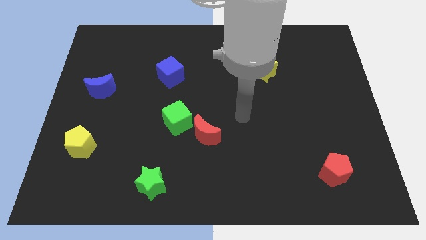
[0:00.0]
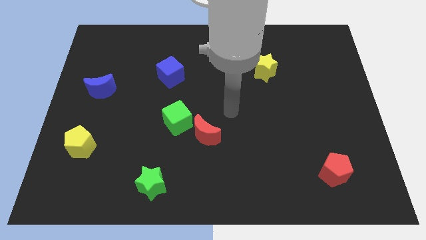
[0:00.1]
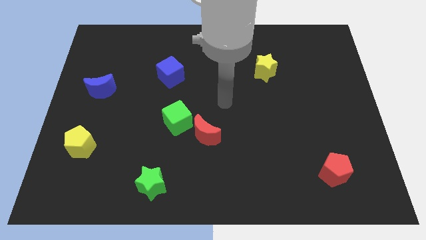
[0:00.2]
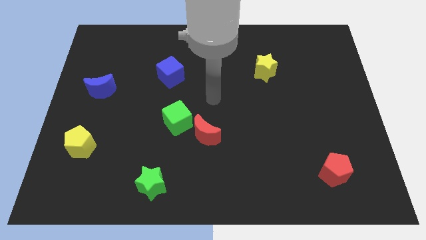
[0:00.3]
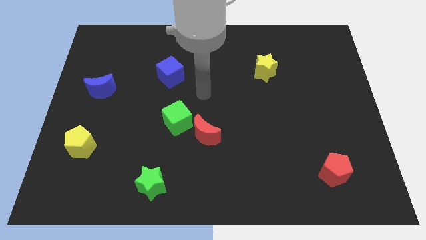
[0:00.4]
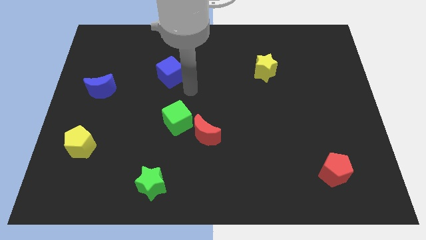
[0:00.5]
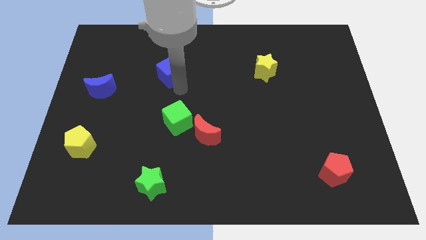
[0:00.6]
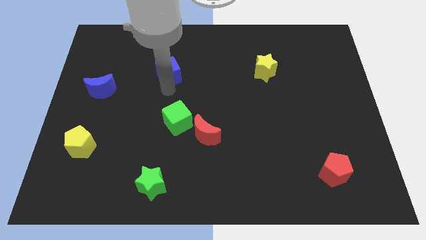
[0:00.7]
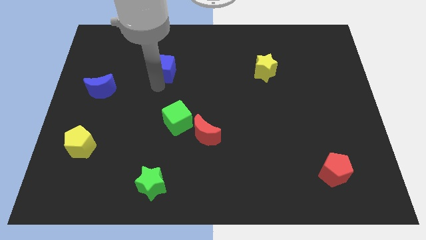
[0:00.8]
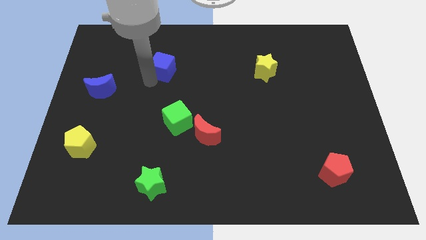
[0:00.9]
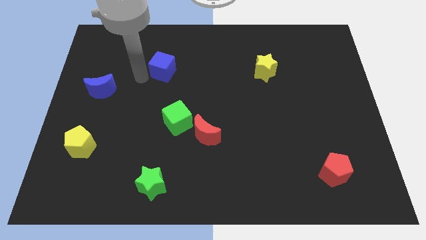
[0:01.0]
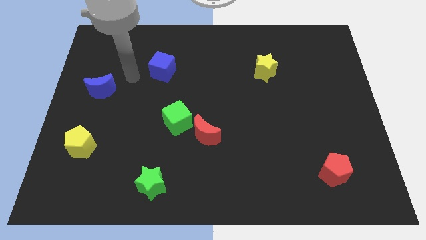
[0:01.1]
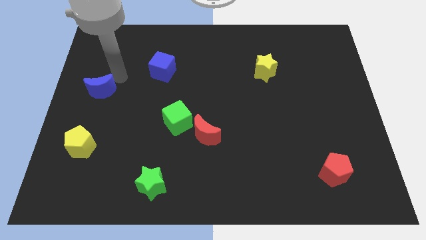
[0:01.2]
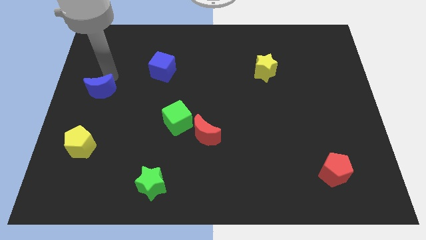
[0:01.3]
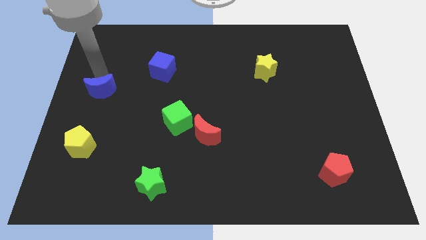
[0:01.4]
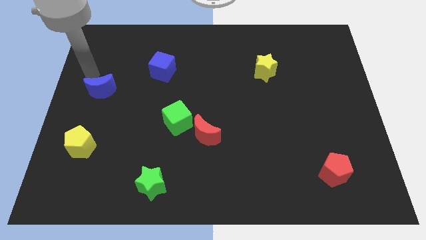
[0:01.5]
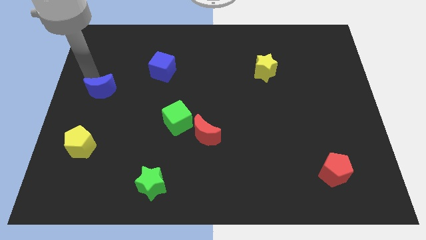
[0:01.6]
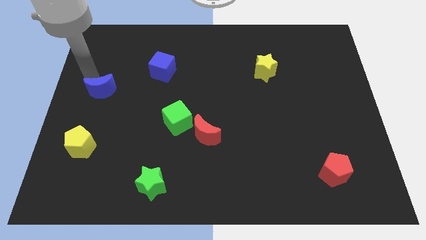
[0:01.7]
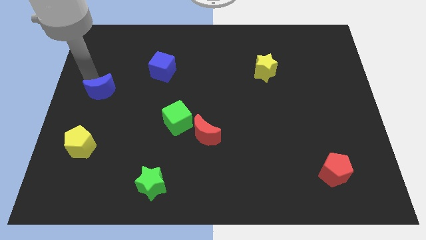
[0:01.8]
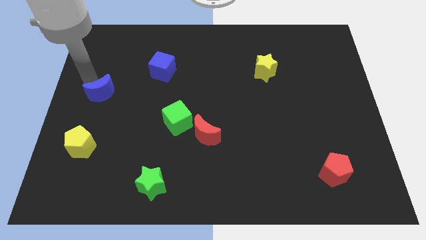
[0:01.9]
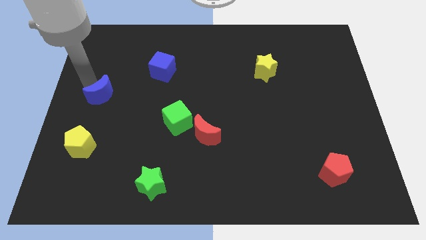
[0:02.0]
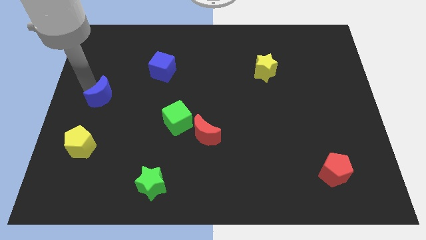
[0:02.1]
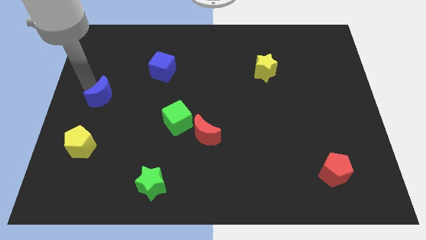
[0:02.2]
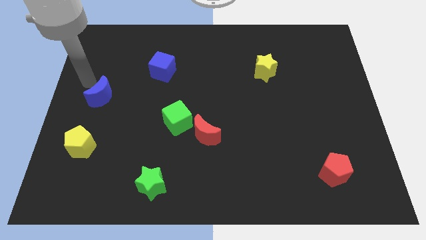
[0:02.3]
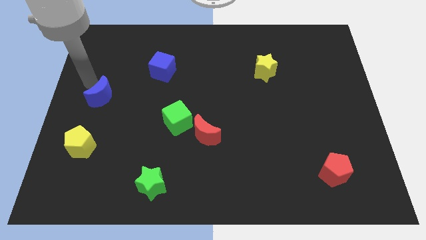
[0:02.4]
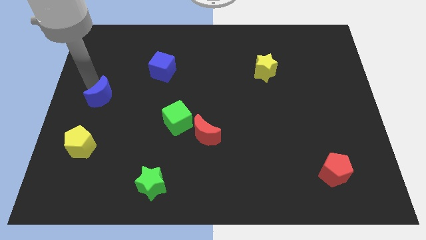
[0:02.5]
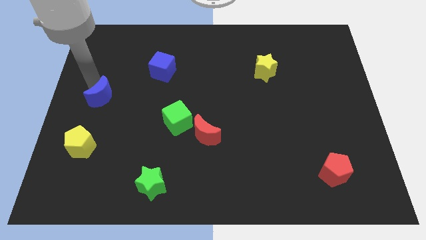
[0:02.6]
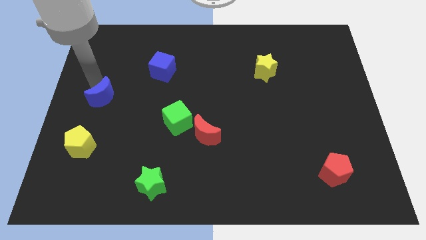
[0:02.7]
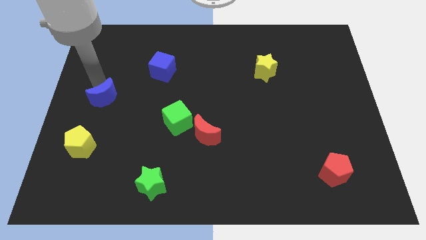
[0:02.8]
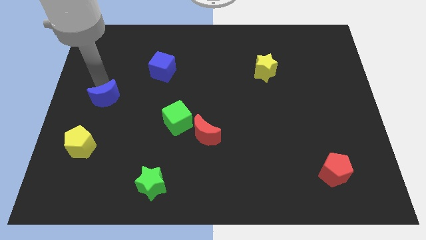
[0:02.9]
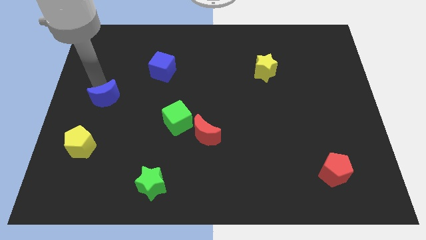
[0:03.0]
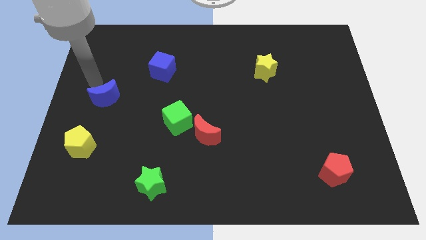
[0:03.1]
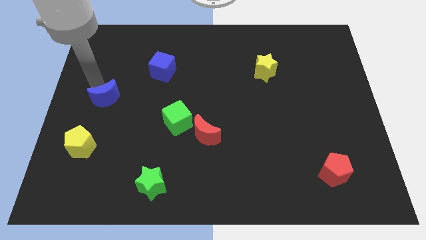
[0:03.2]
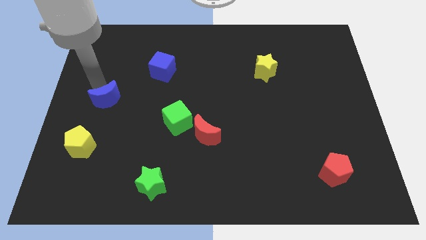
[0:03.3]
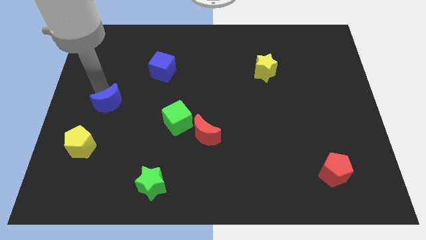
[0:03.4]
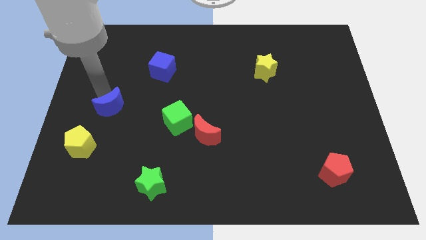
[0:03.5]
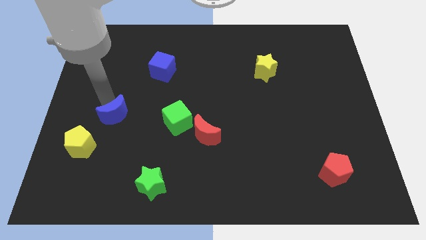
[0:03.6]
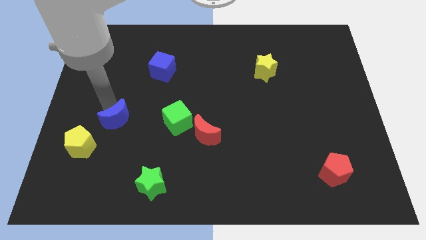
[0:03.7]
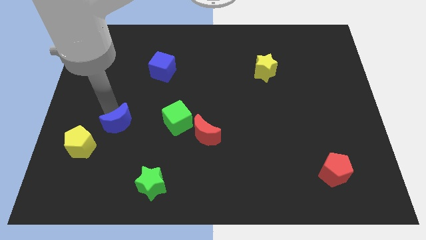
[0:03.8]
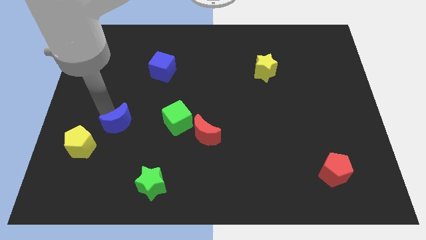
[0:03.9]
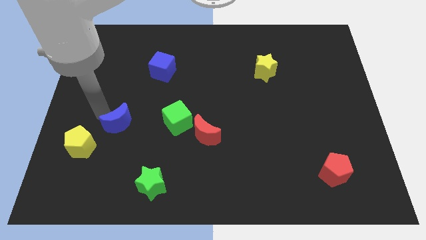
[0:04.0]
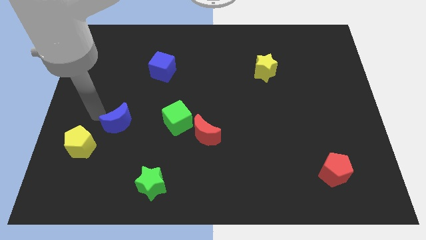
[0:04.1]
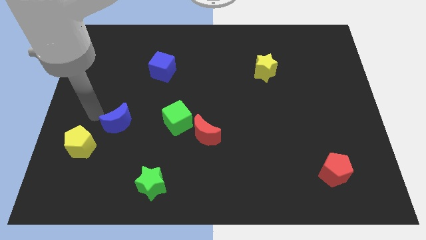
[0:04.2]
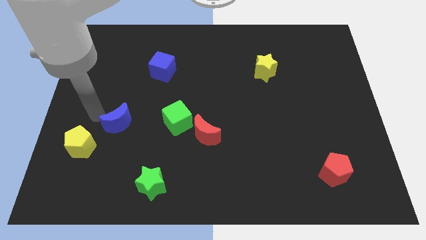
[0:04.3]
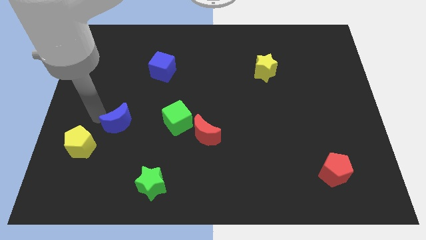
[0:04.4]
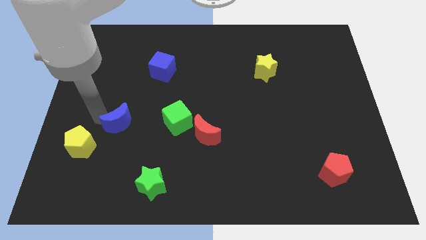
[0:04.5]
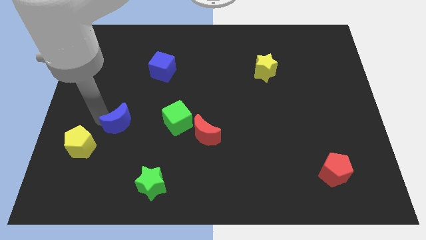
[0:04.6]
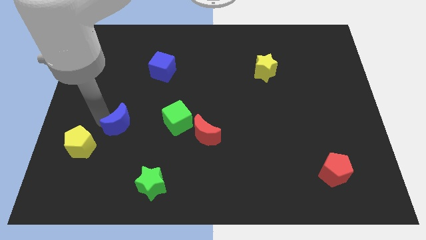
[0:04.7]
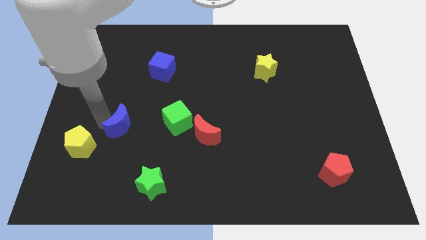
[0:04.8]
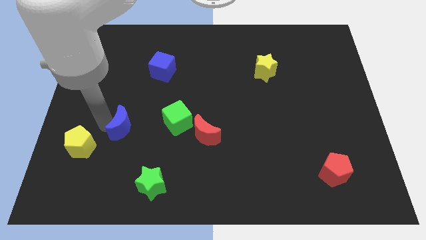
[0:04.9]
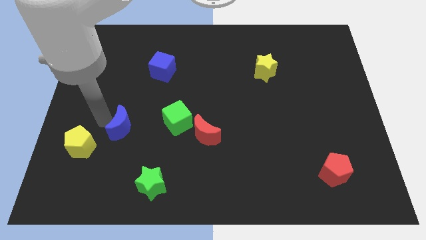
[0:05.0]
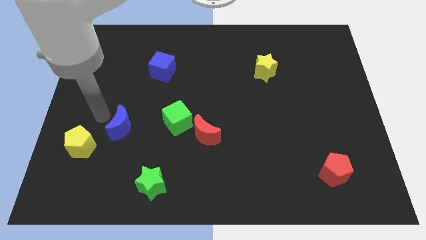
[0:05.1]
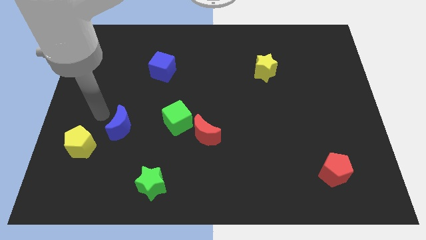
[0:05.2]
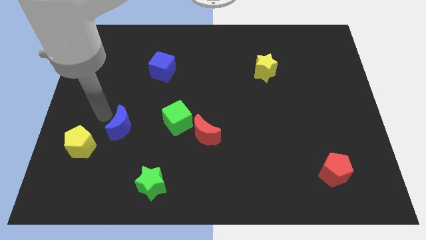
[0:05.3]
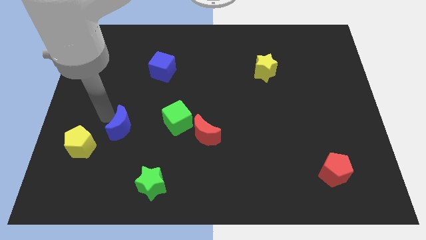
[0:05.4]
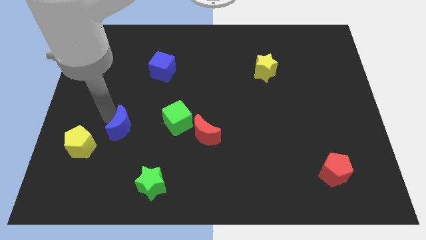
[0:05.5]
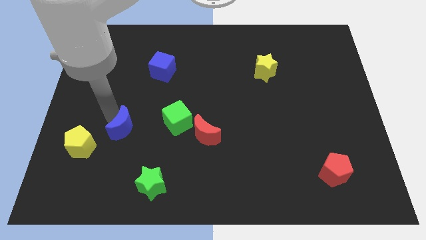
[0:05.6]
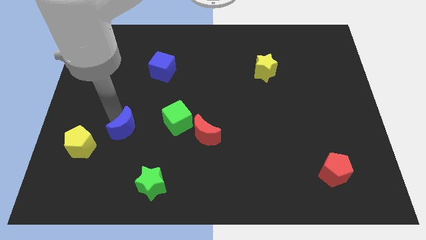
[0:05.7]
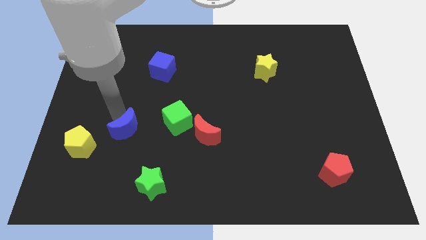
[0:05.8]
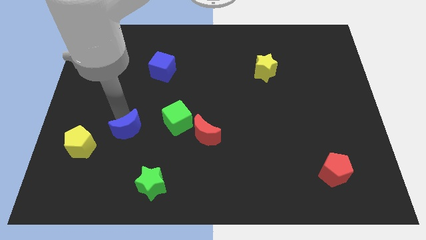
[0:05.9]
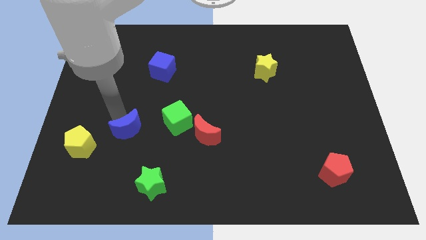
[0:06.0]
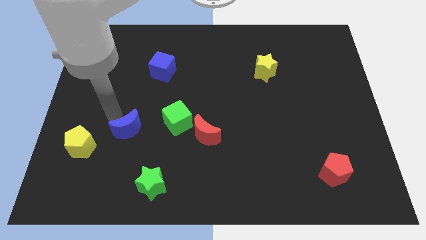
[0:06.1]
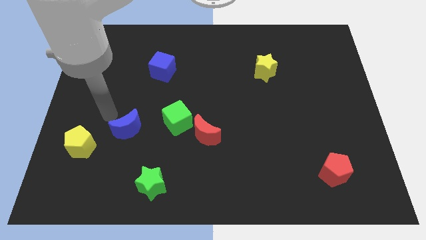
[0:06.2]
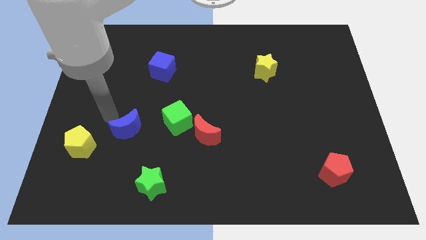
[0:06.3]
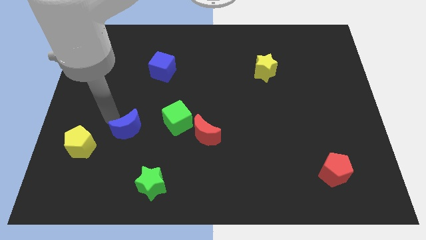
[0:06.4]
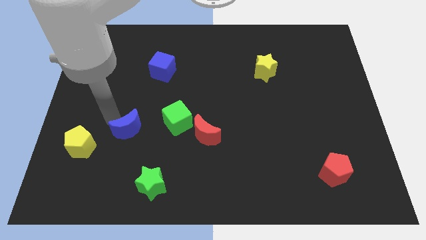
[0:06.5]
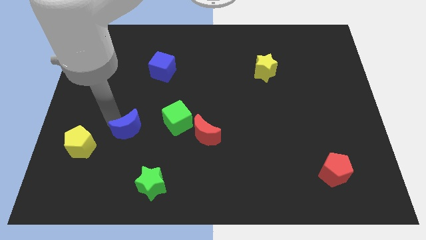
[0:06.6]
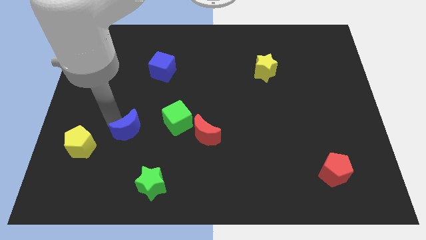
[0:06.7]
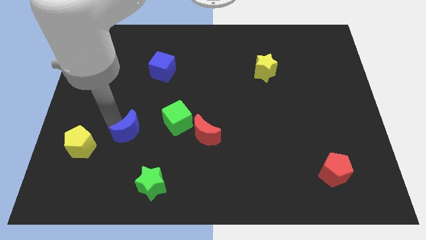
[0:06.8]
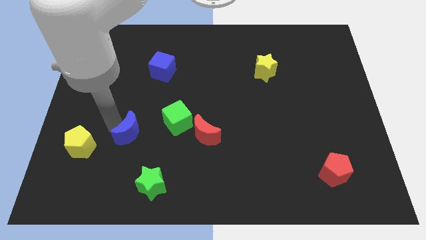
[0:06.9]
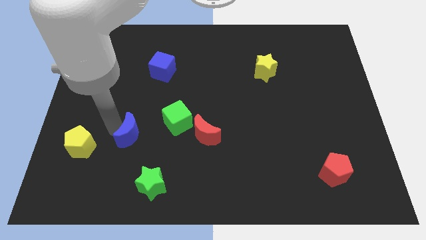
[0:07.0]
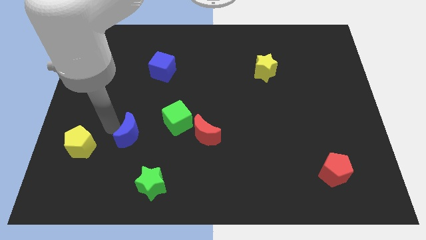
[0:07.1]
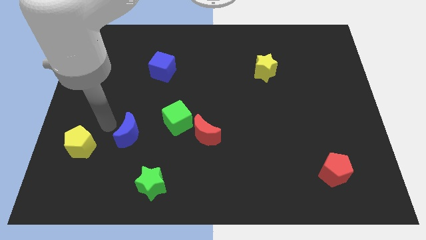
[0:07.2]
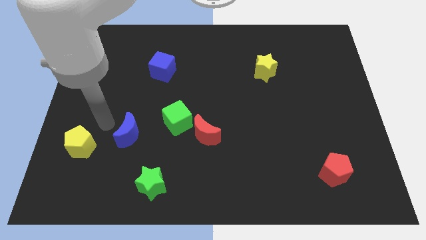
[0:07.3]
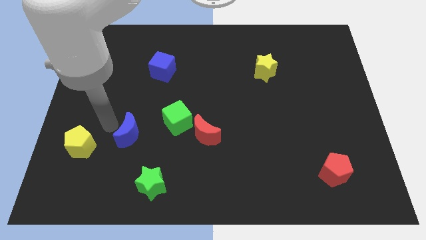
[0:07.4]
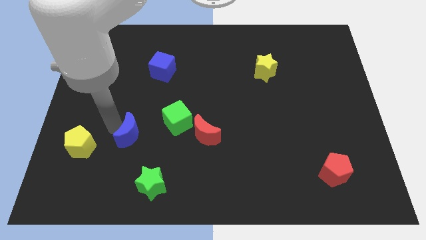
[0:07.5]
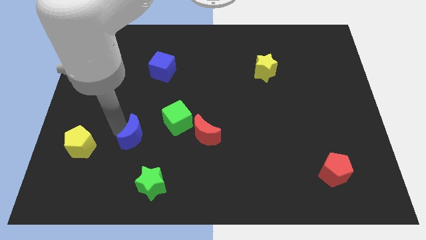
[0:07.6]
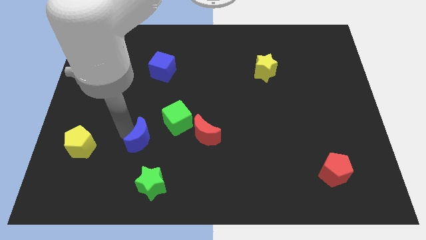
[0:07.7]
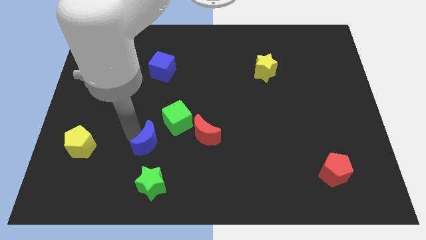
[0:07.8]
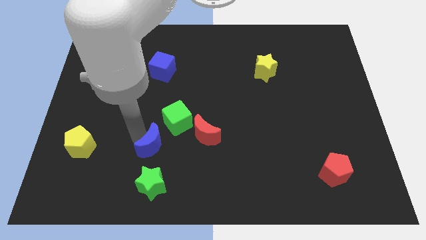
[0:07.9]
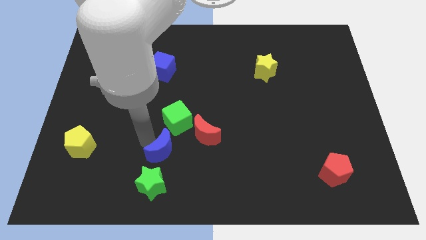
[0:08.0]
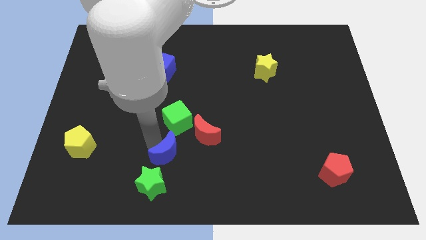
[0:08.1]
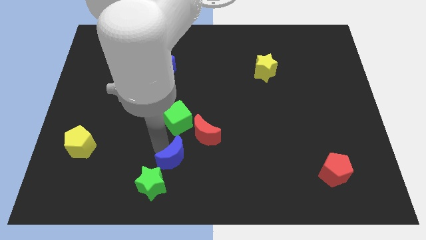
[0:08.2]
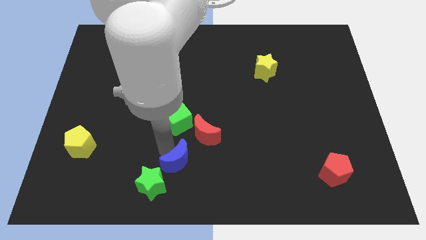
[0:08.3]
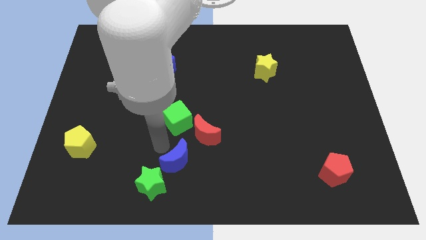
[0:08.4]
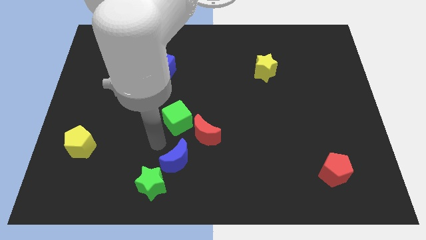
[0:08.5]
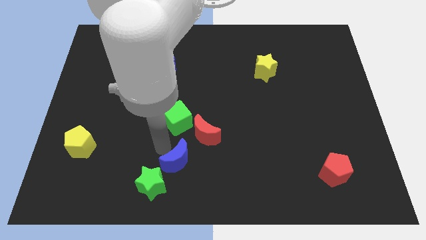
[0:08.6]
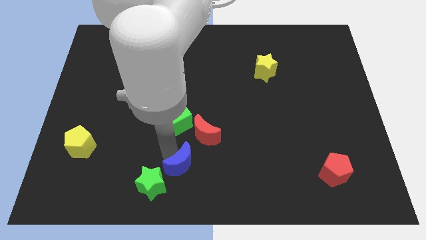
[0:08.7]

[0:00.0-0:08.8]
slide the blue moon right of the green star
